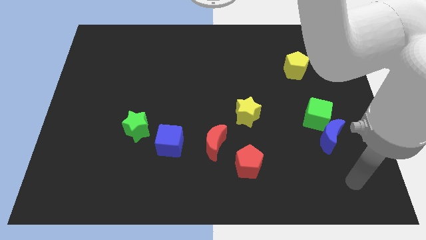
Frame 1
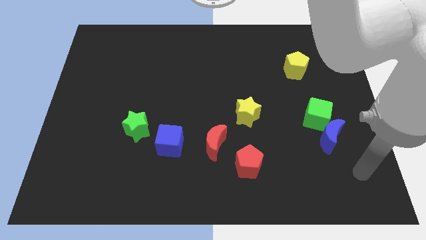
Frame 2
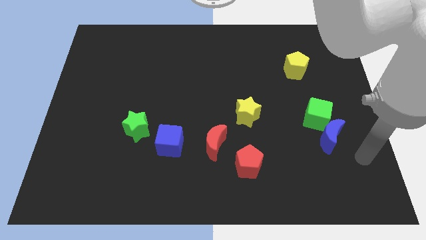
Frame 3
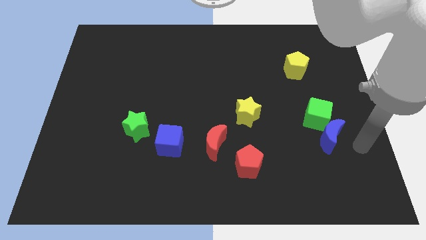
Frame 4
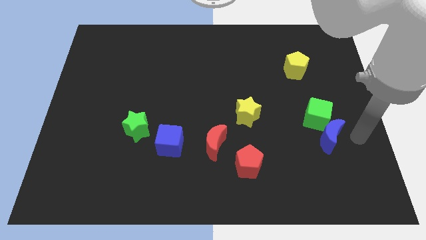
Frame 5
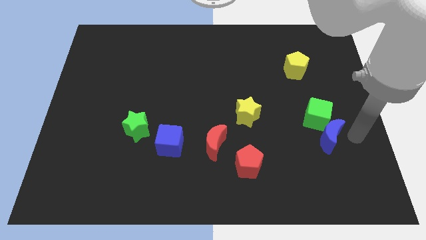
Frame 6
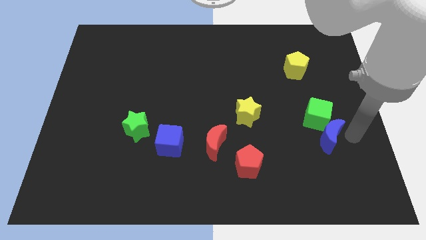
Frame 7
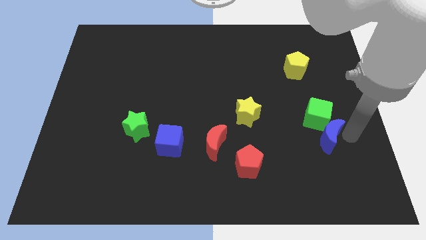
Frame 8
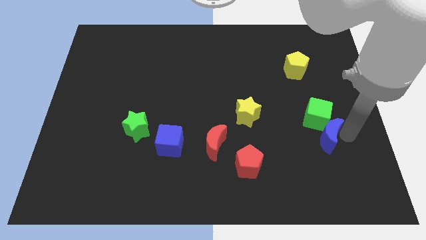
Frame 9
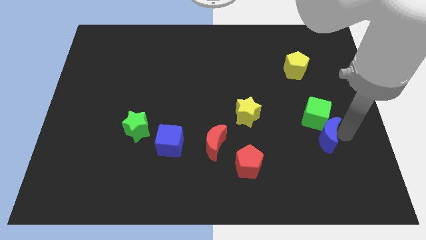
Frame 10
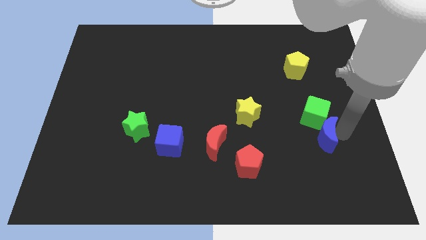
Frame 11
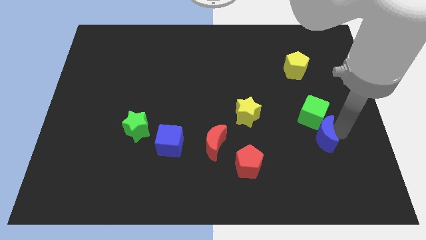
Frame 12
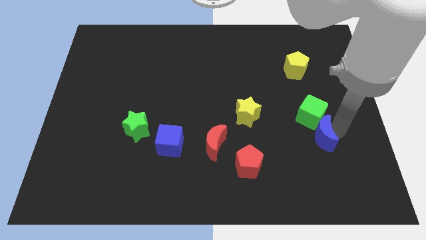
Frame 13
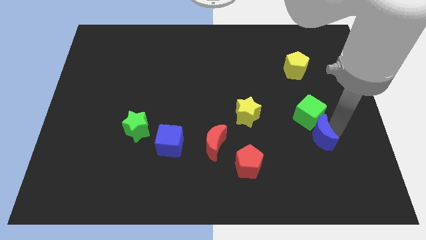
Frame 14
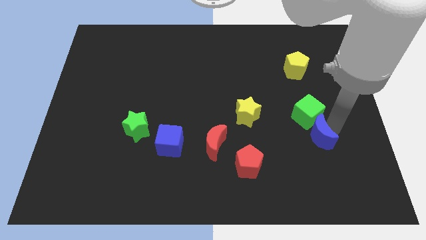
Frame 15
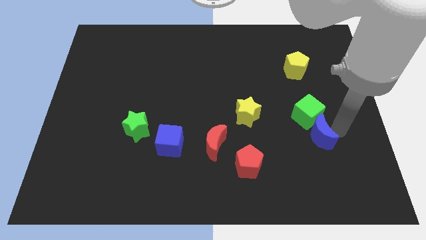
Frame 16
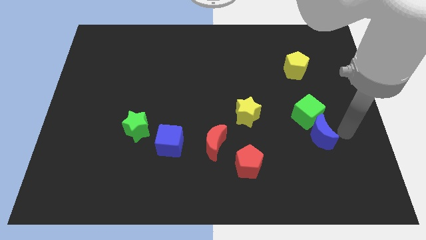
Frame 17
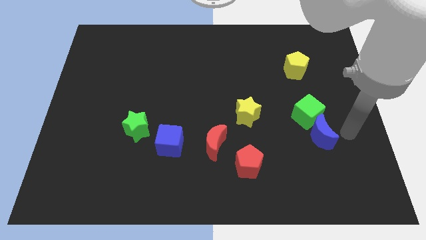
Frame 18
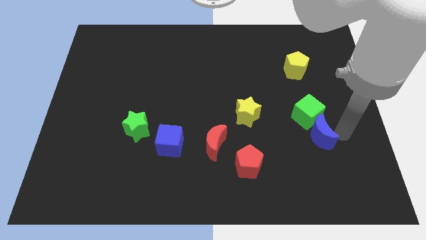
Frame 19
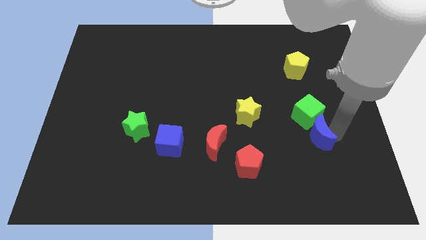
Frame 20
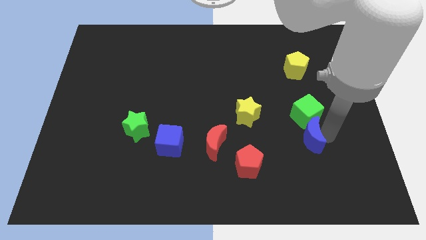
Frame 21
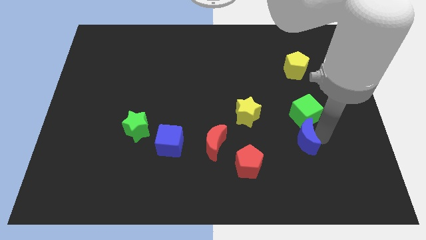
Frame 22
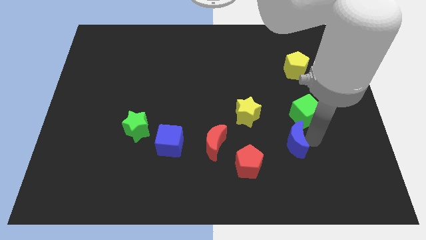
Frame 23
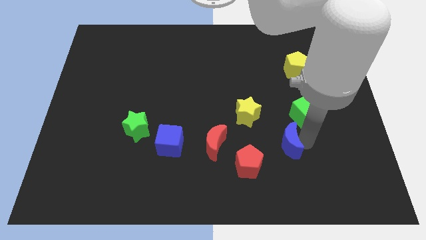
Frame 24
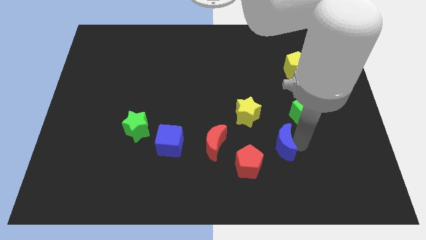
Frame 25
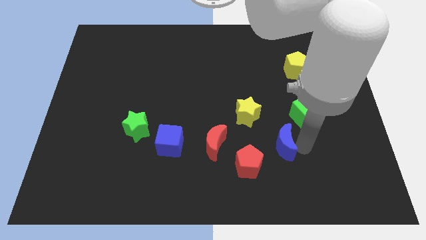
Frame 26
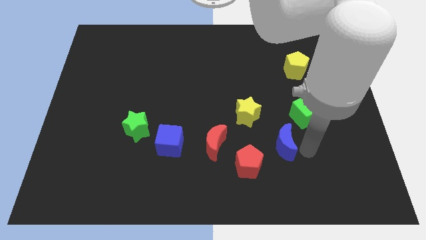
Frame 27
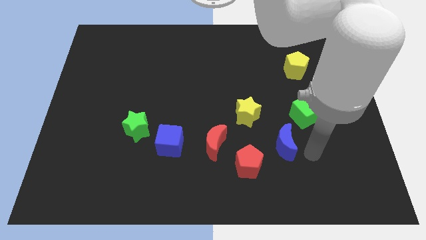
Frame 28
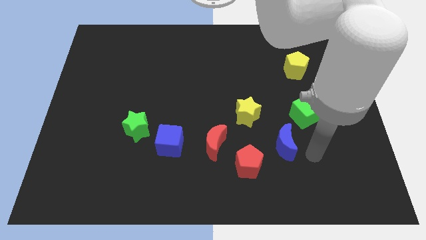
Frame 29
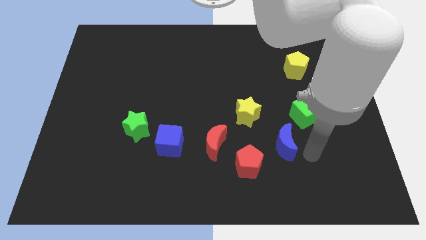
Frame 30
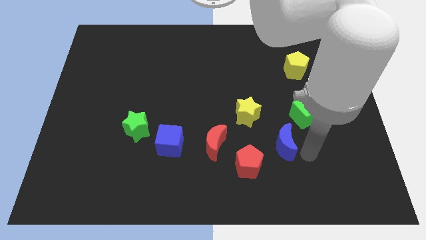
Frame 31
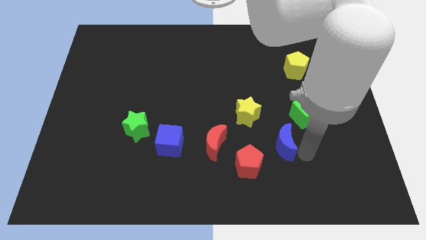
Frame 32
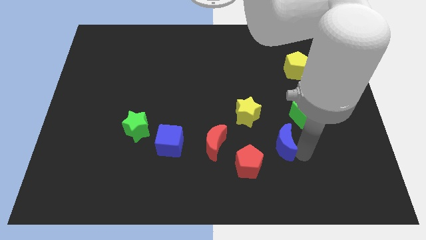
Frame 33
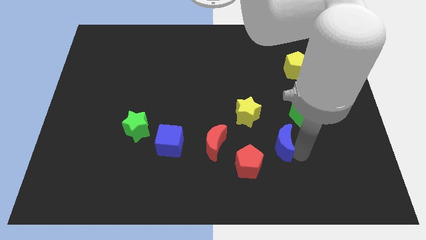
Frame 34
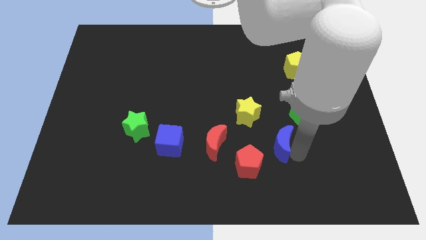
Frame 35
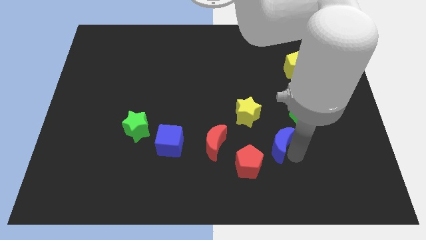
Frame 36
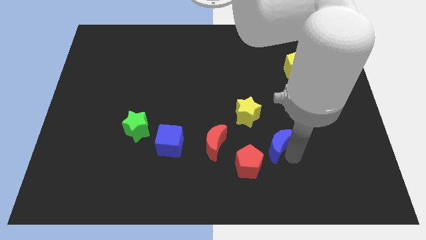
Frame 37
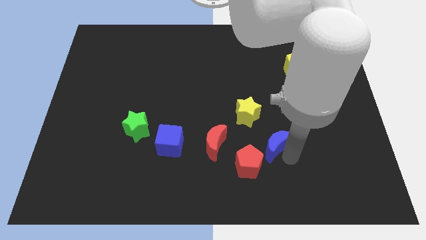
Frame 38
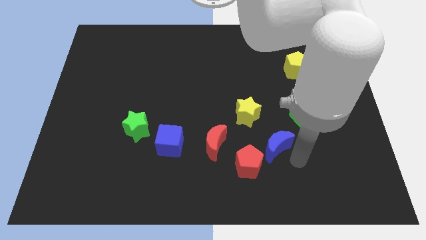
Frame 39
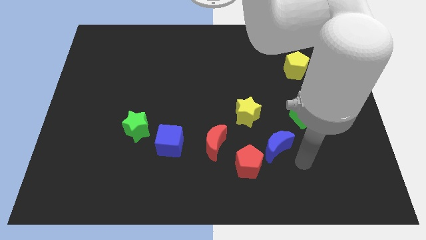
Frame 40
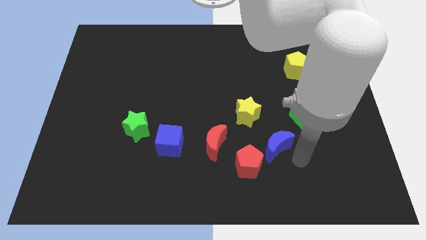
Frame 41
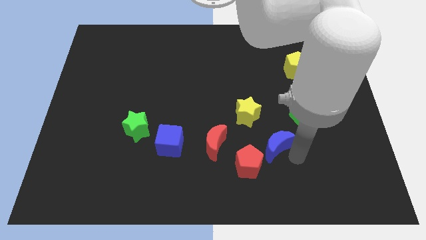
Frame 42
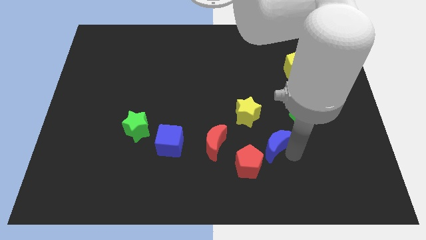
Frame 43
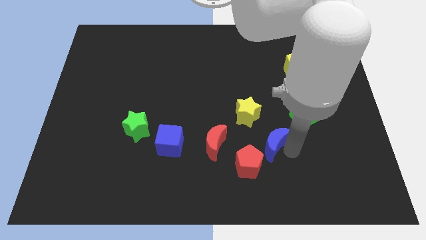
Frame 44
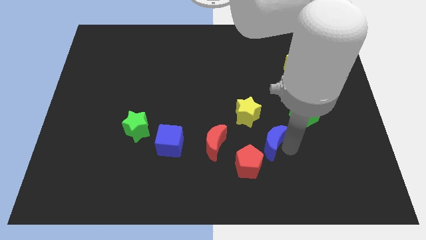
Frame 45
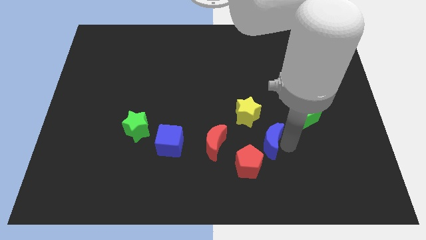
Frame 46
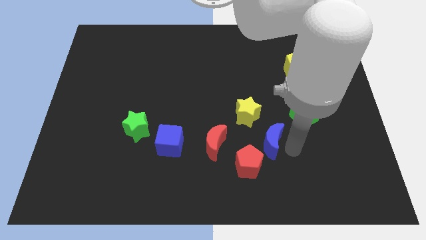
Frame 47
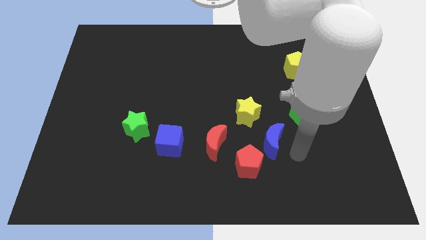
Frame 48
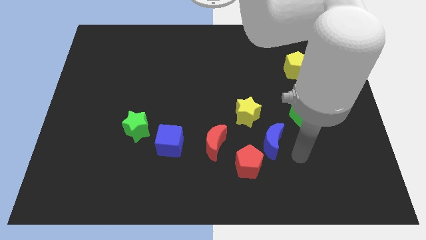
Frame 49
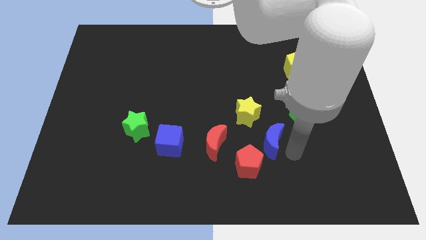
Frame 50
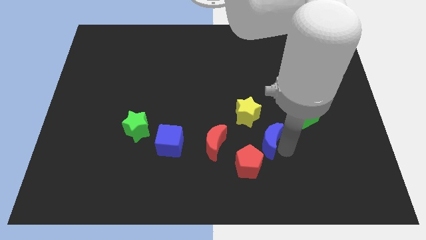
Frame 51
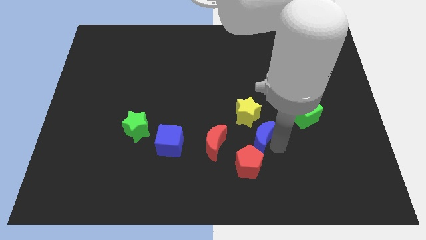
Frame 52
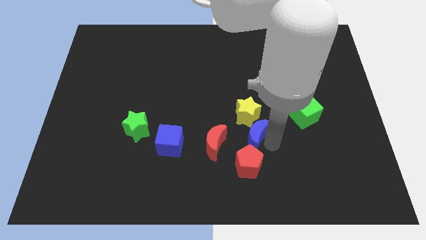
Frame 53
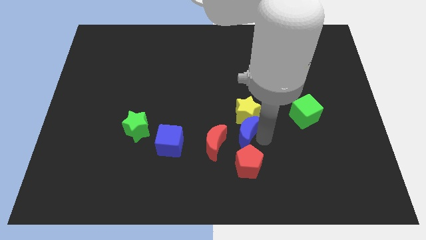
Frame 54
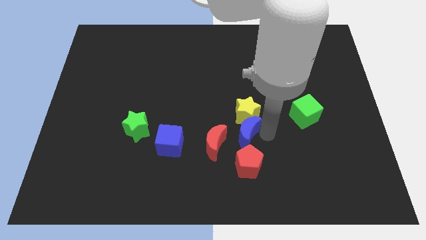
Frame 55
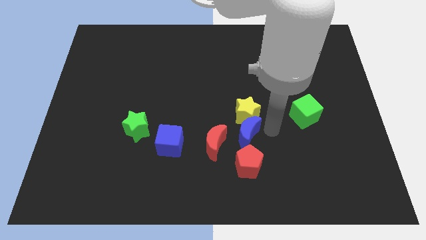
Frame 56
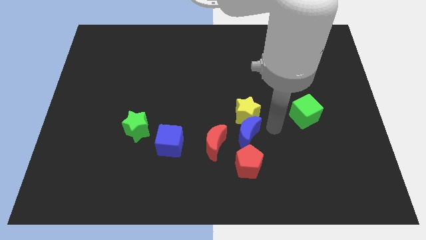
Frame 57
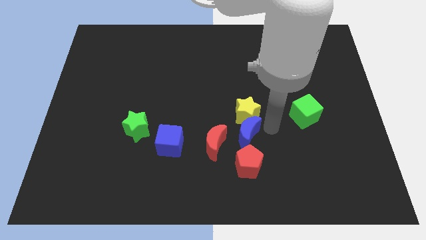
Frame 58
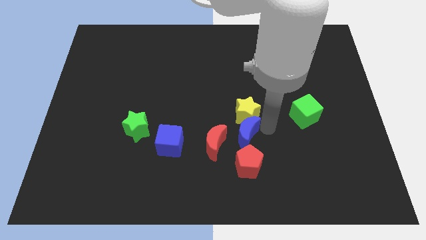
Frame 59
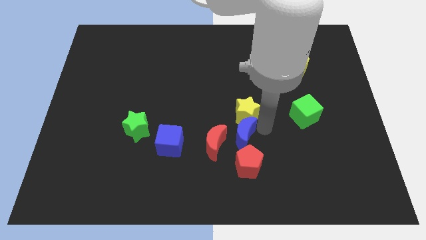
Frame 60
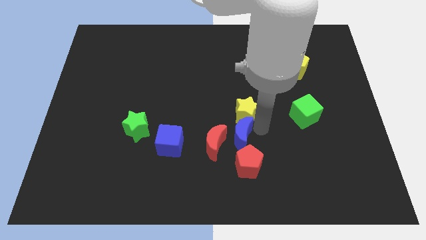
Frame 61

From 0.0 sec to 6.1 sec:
put the blue moon towards the red moon

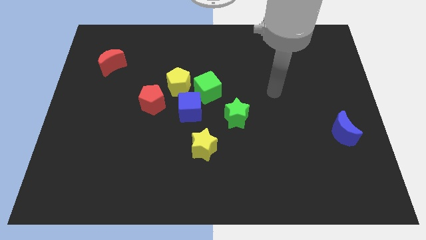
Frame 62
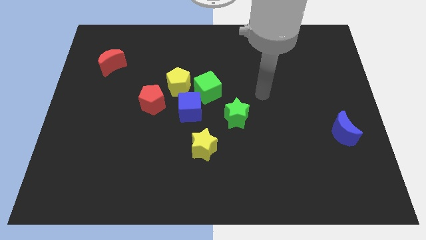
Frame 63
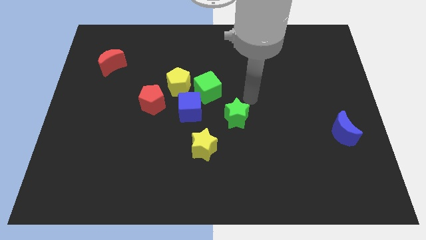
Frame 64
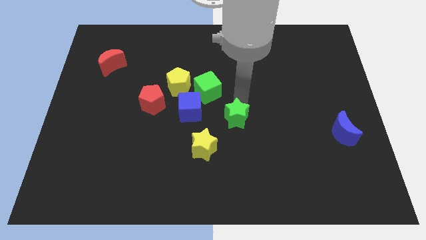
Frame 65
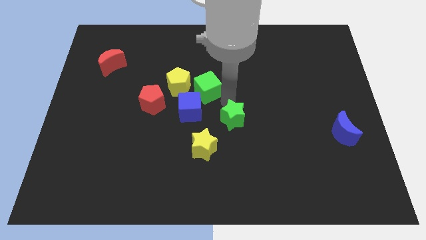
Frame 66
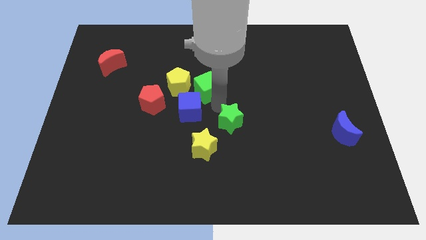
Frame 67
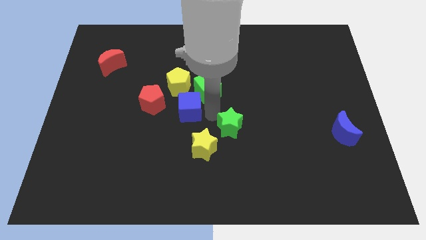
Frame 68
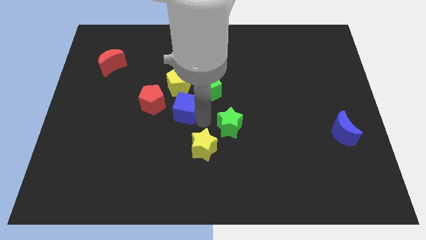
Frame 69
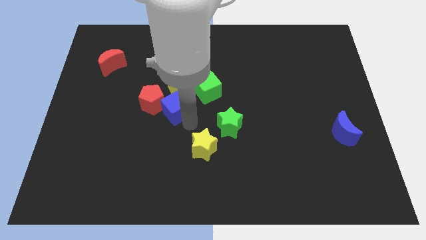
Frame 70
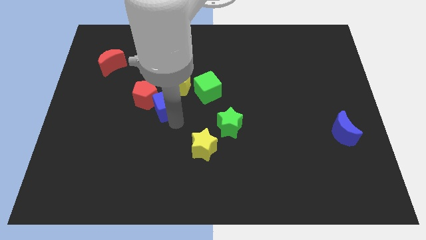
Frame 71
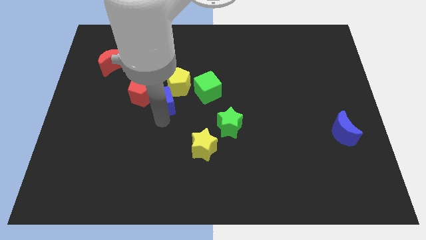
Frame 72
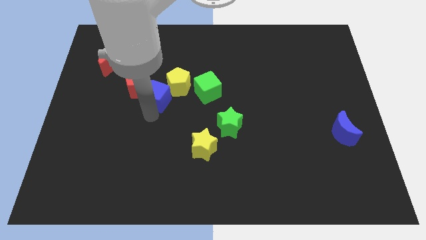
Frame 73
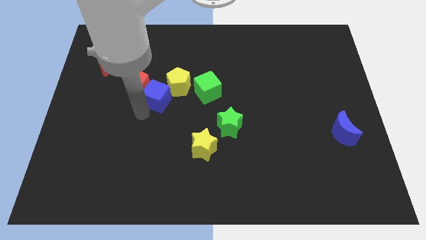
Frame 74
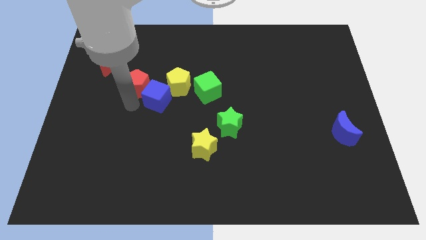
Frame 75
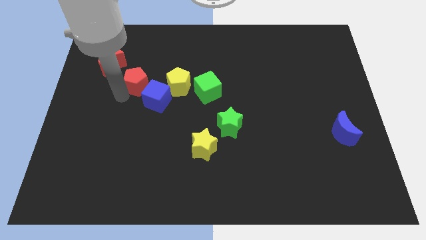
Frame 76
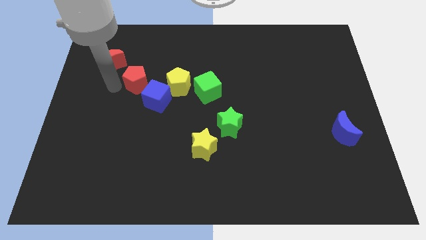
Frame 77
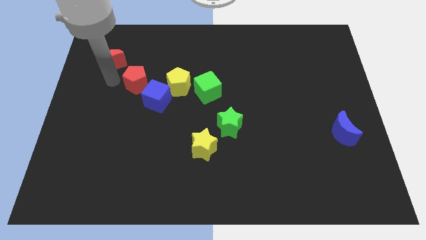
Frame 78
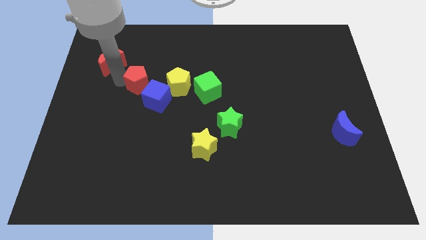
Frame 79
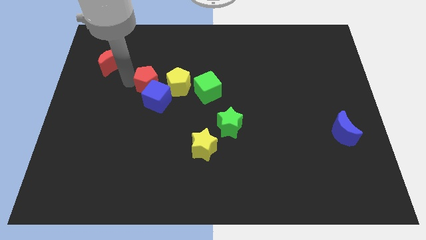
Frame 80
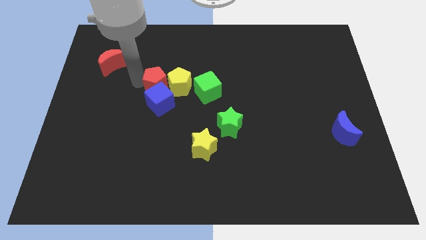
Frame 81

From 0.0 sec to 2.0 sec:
put the red pentagon to the yellow pentagon
